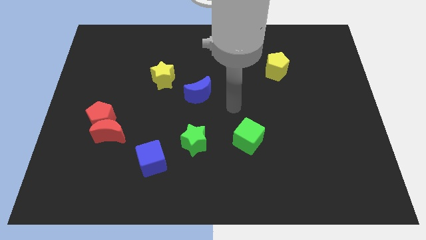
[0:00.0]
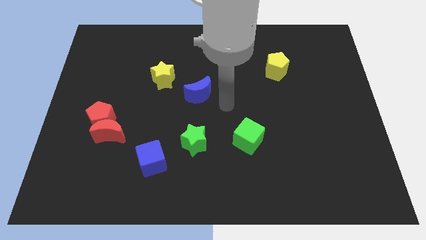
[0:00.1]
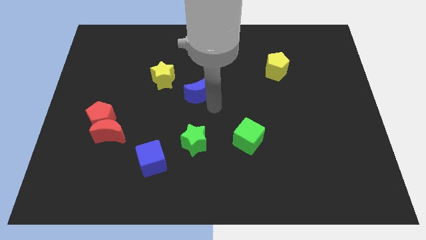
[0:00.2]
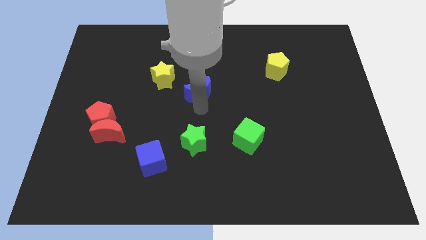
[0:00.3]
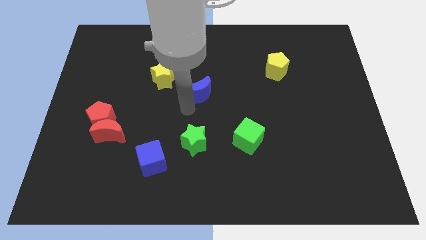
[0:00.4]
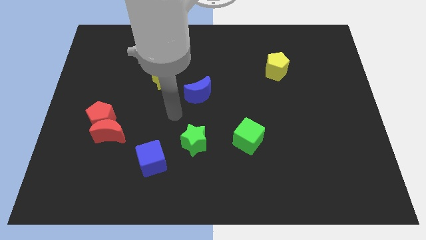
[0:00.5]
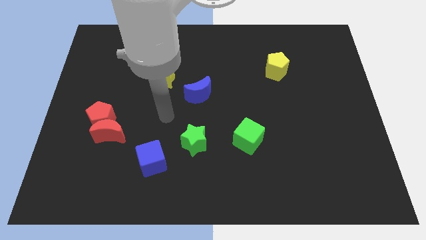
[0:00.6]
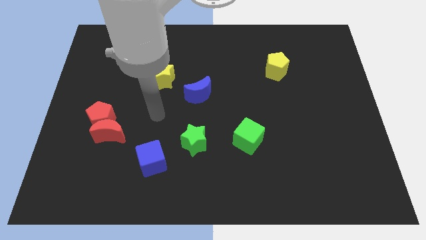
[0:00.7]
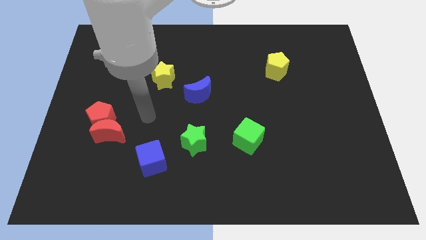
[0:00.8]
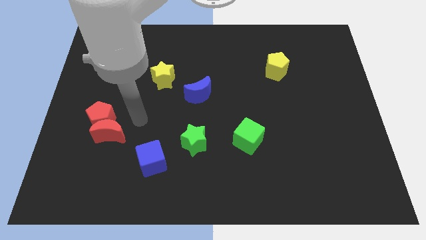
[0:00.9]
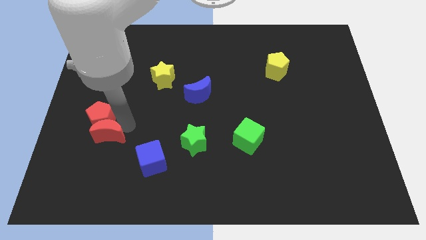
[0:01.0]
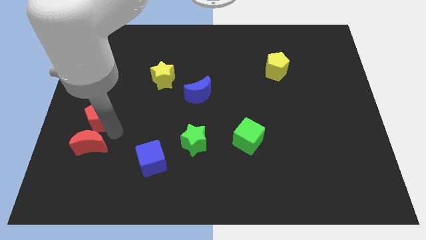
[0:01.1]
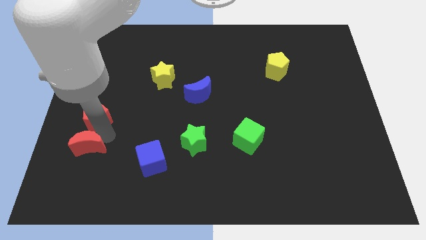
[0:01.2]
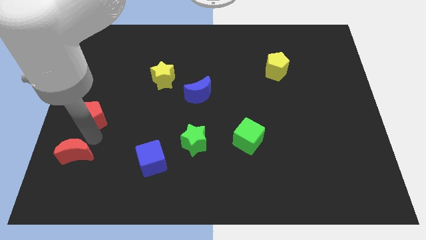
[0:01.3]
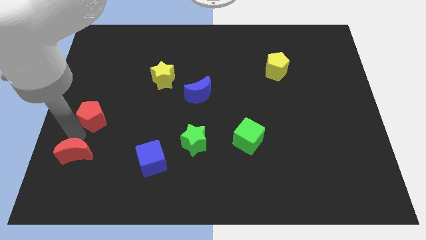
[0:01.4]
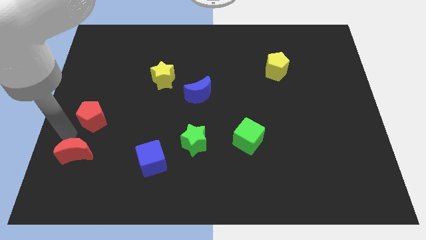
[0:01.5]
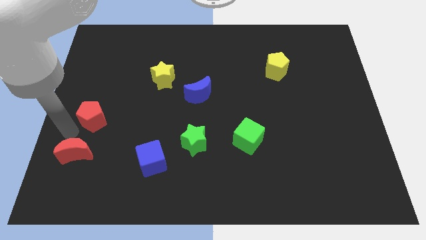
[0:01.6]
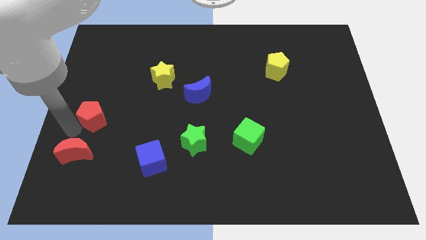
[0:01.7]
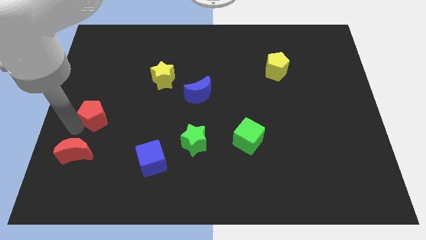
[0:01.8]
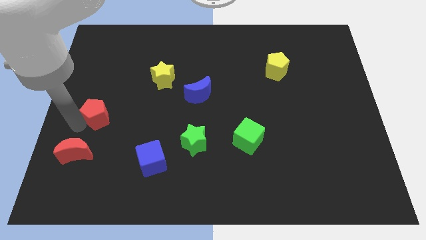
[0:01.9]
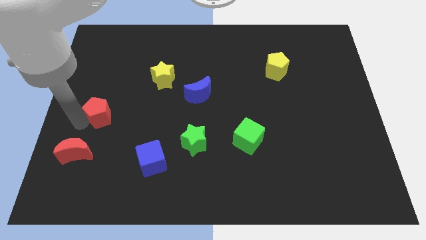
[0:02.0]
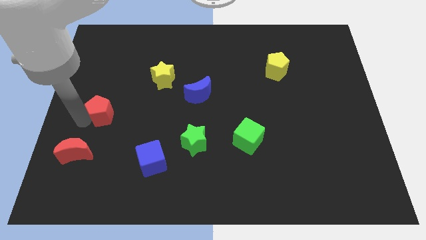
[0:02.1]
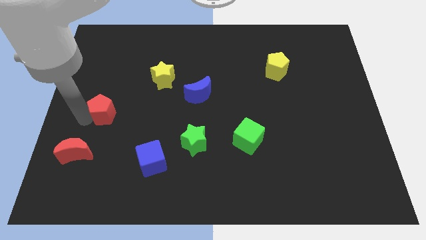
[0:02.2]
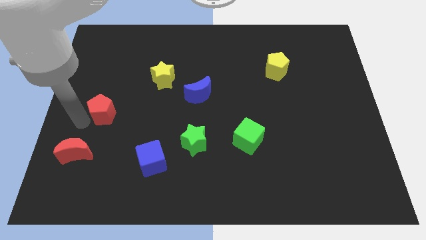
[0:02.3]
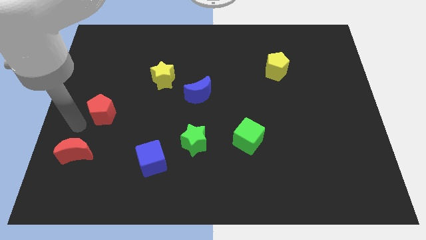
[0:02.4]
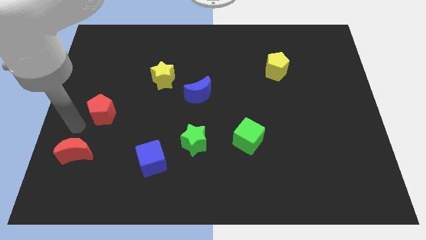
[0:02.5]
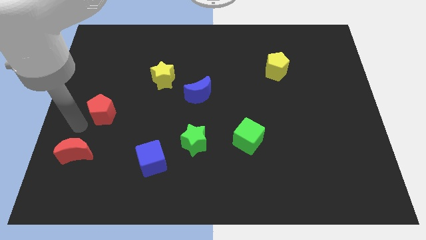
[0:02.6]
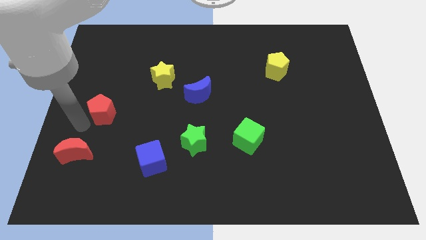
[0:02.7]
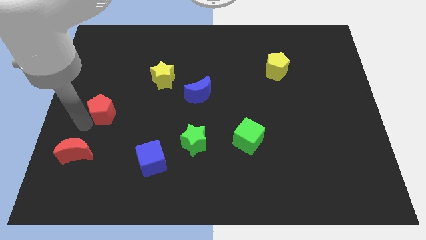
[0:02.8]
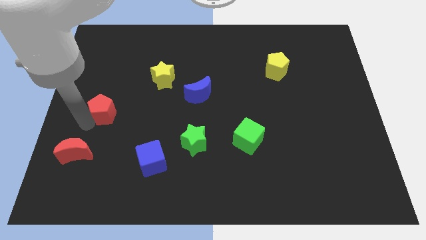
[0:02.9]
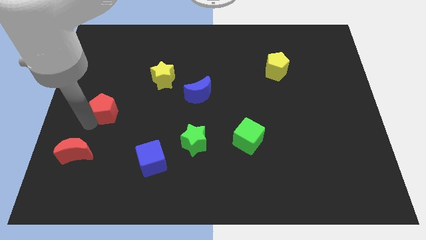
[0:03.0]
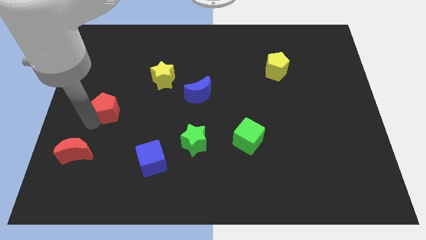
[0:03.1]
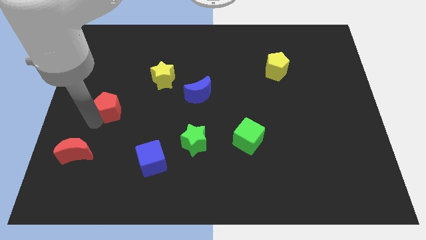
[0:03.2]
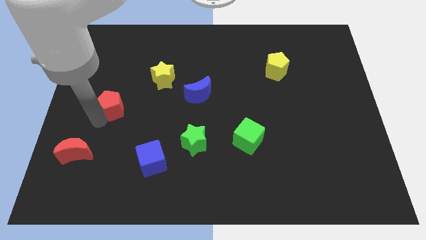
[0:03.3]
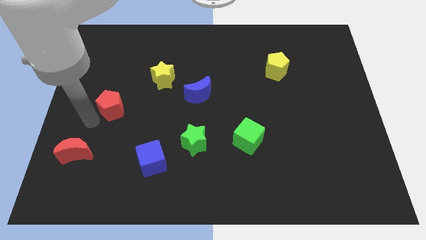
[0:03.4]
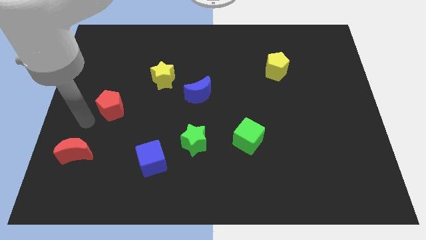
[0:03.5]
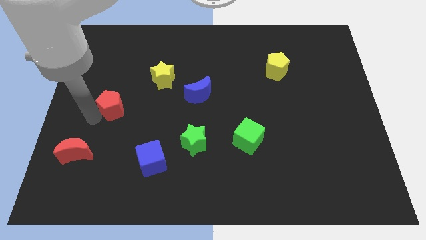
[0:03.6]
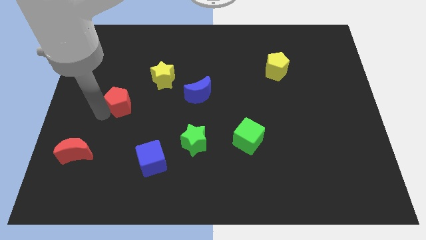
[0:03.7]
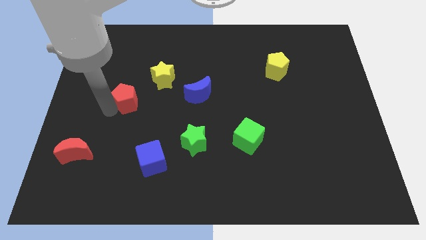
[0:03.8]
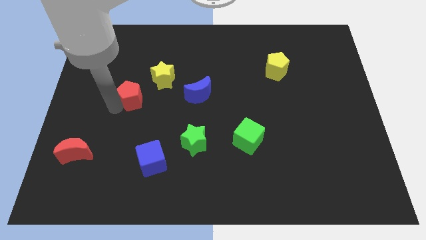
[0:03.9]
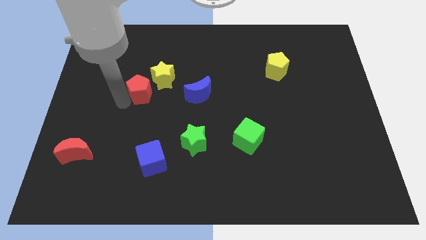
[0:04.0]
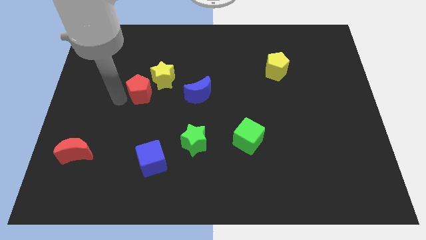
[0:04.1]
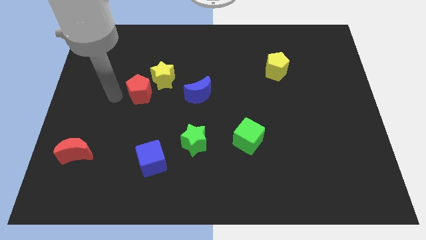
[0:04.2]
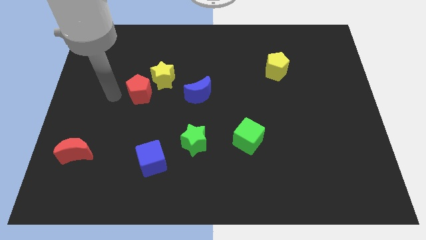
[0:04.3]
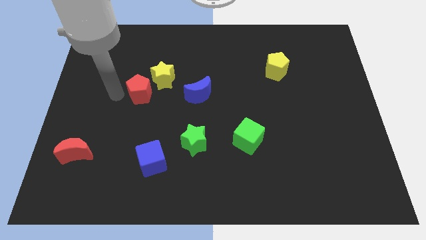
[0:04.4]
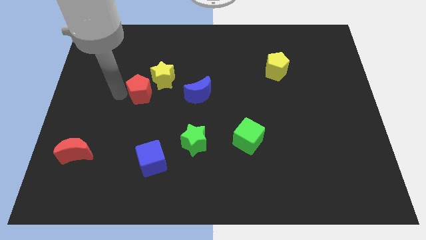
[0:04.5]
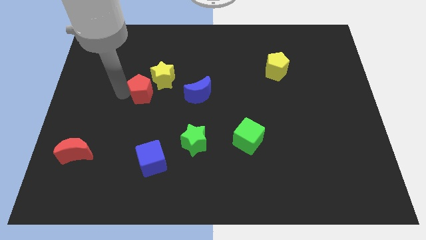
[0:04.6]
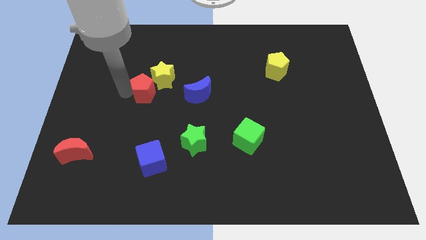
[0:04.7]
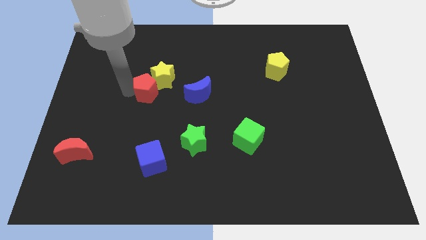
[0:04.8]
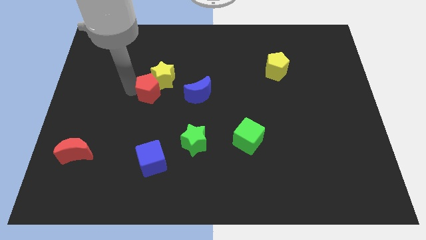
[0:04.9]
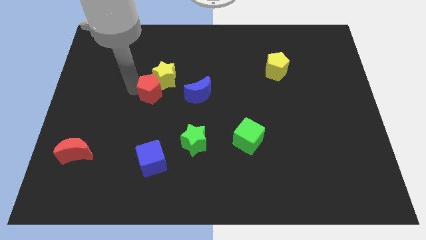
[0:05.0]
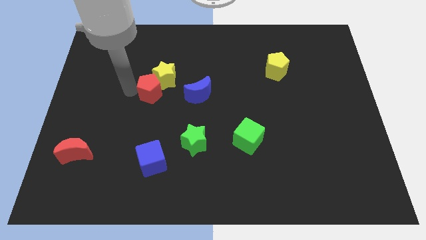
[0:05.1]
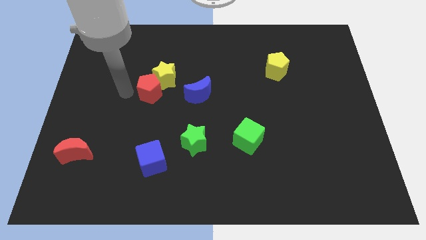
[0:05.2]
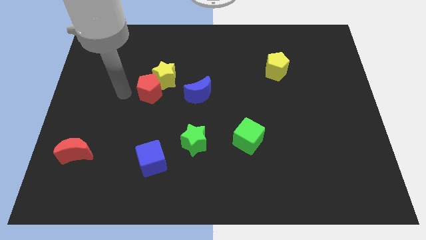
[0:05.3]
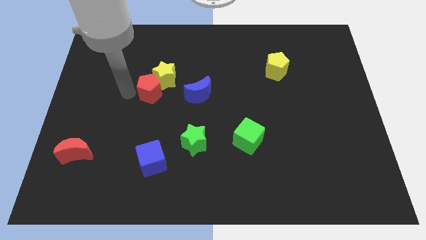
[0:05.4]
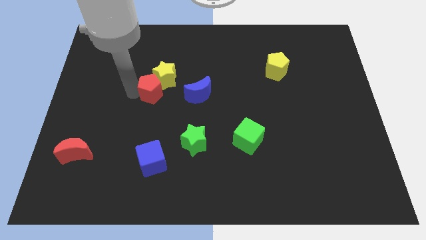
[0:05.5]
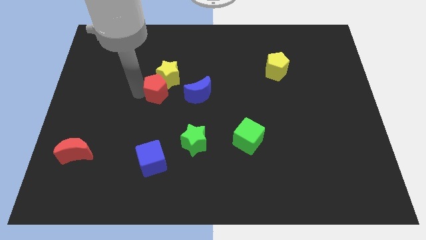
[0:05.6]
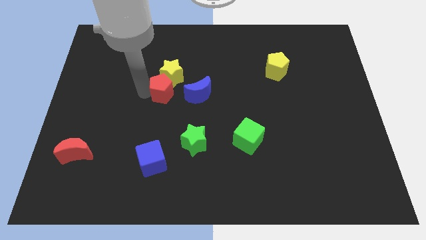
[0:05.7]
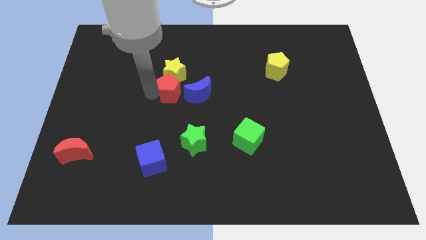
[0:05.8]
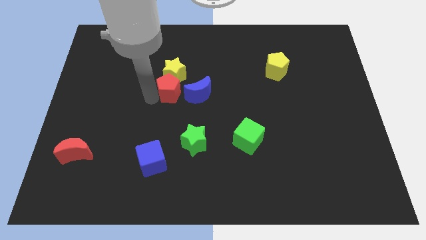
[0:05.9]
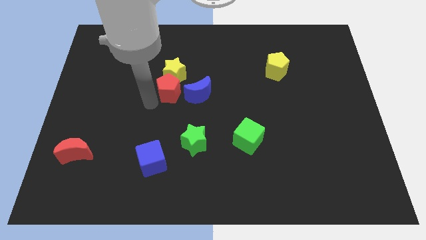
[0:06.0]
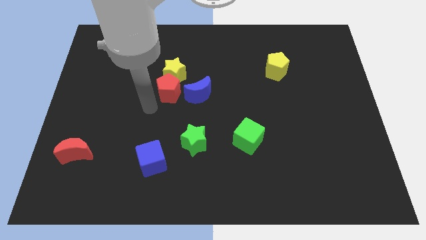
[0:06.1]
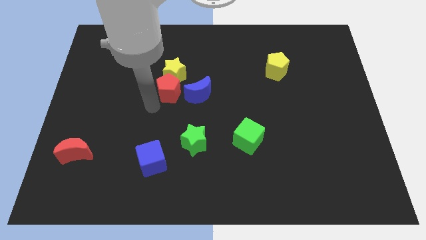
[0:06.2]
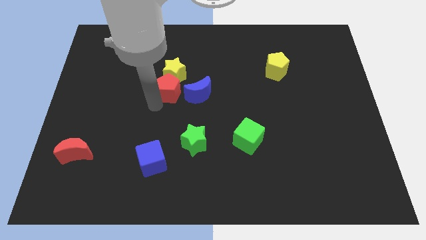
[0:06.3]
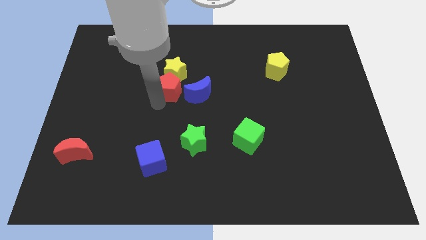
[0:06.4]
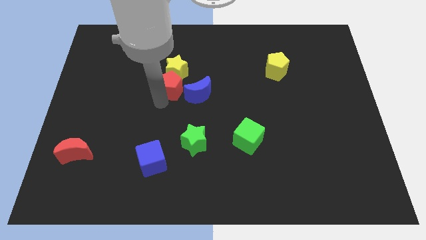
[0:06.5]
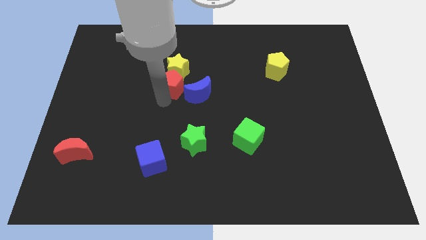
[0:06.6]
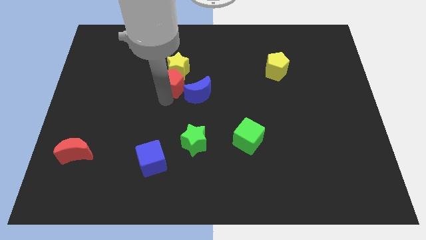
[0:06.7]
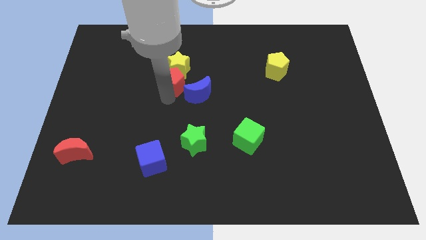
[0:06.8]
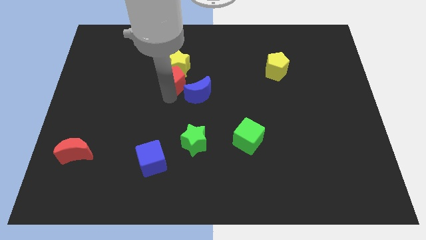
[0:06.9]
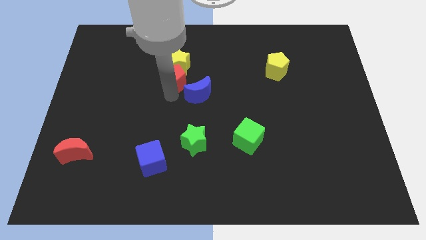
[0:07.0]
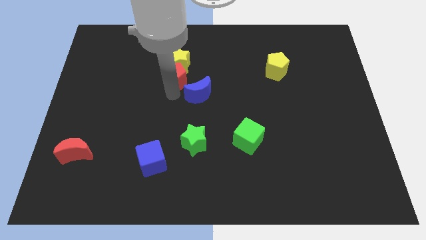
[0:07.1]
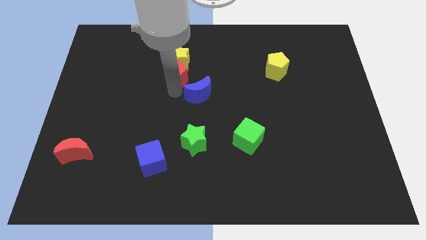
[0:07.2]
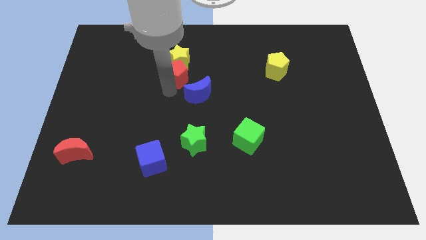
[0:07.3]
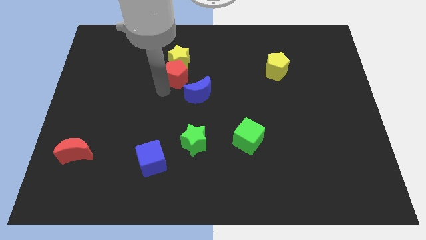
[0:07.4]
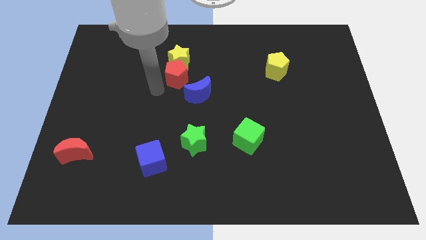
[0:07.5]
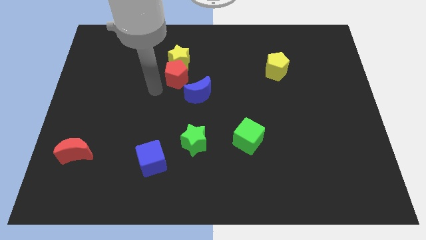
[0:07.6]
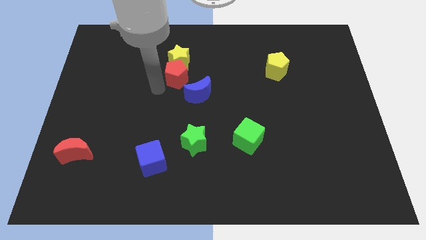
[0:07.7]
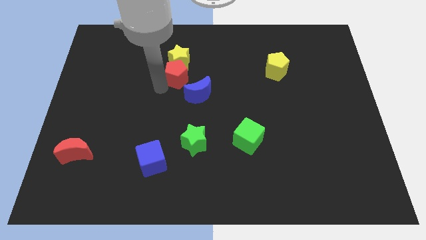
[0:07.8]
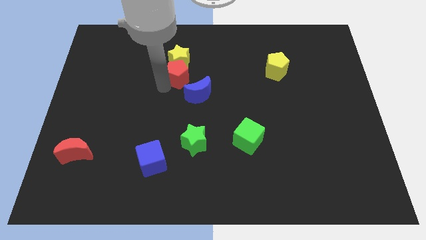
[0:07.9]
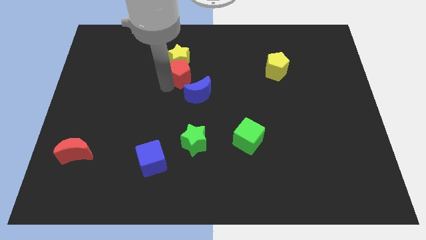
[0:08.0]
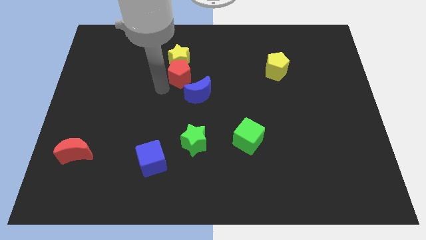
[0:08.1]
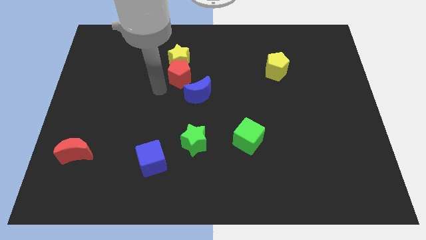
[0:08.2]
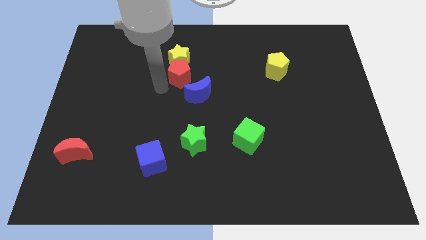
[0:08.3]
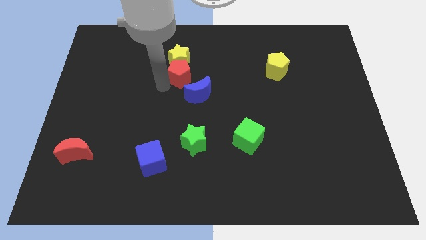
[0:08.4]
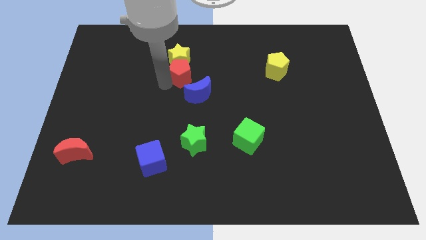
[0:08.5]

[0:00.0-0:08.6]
put the red pentagon to the top side of the blue moon
